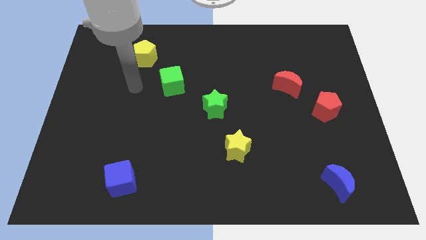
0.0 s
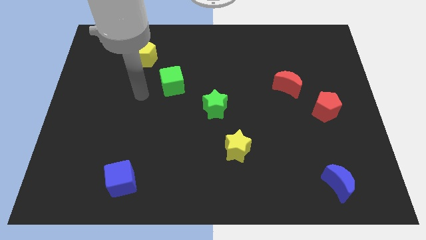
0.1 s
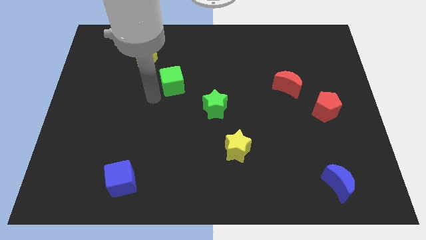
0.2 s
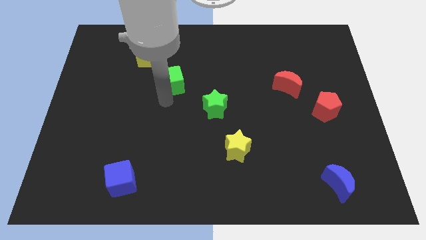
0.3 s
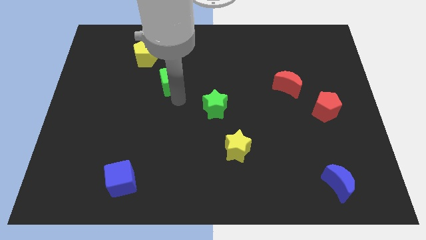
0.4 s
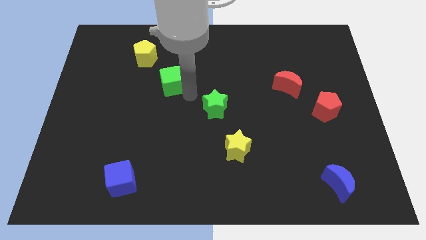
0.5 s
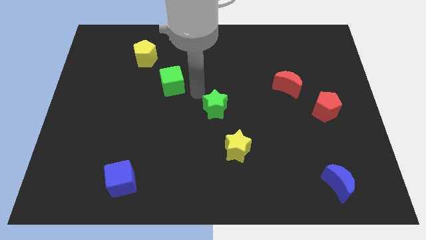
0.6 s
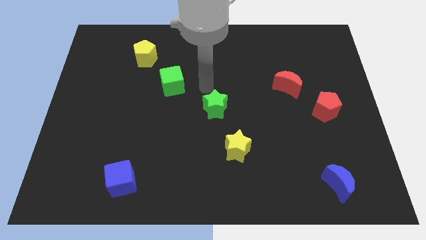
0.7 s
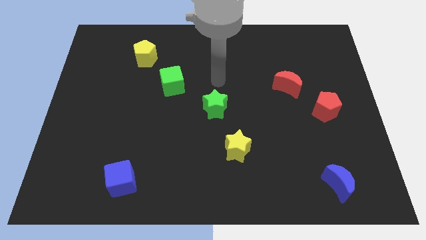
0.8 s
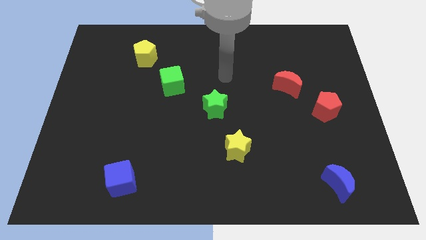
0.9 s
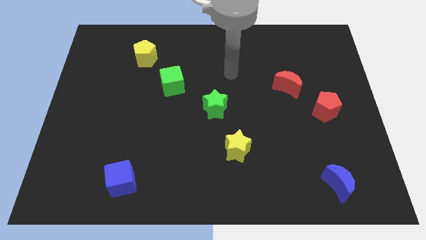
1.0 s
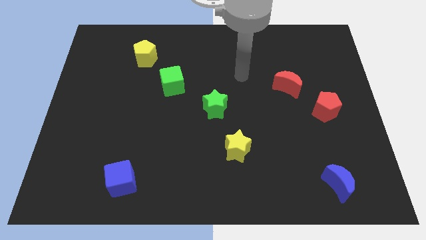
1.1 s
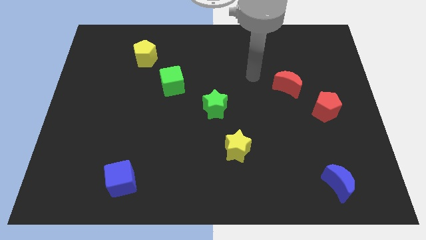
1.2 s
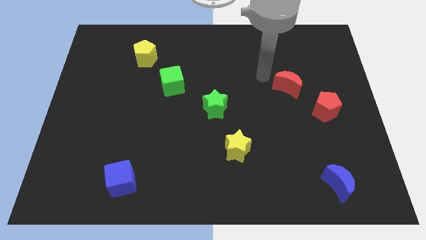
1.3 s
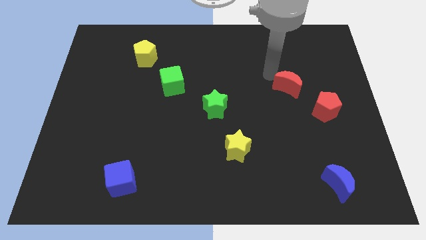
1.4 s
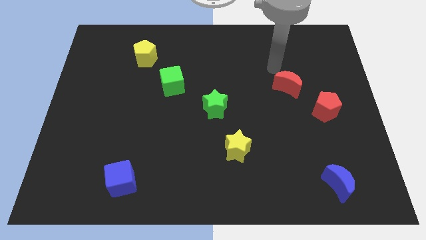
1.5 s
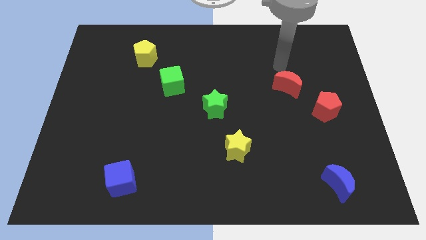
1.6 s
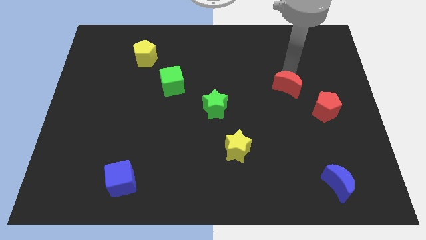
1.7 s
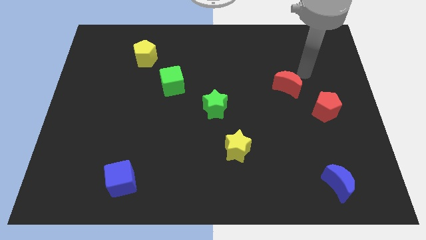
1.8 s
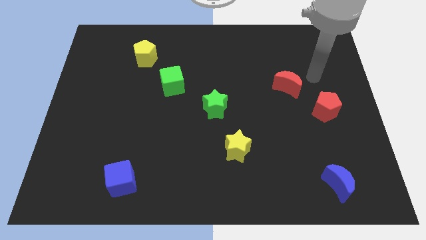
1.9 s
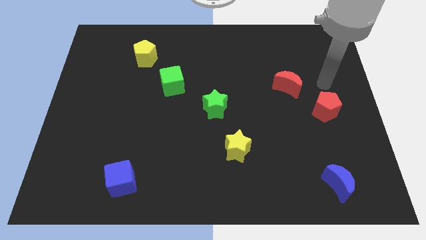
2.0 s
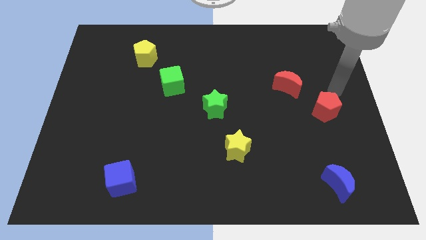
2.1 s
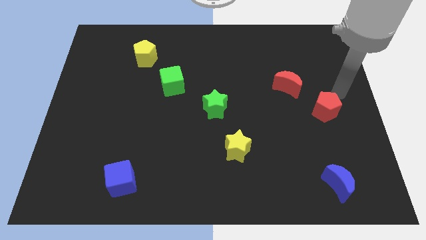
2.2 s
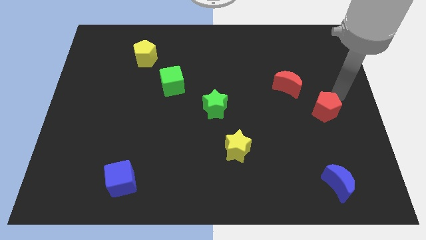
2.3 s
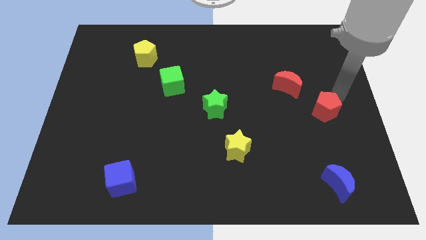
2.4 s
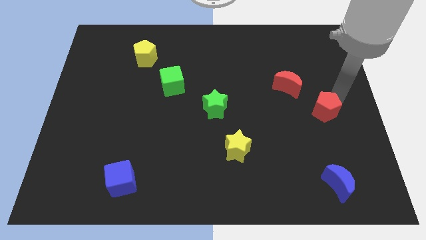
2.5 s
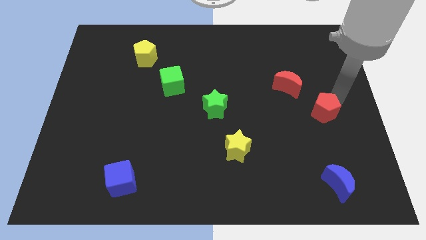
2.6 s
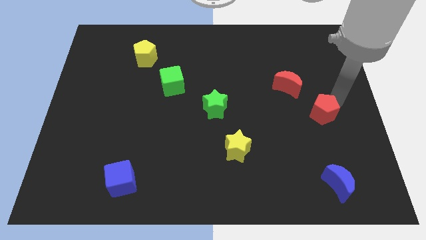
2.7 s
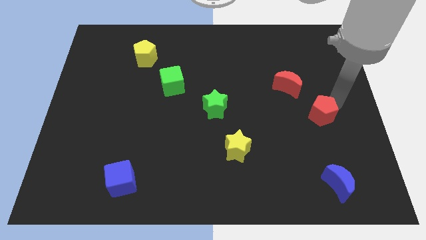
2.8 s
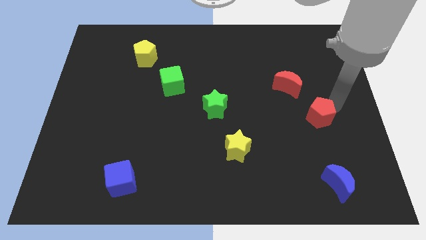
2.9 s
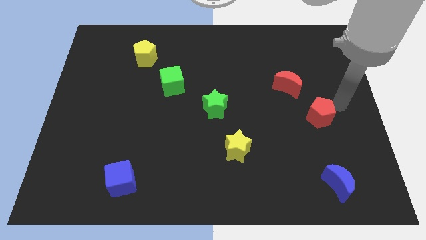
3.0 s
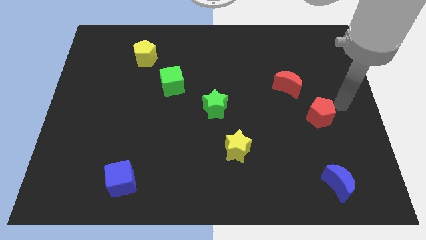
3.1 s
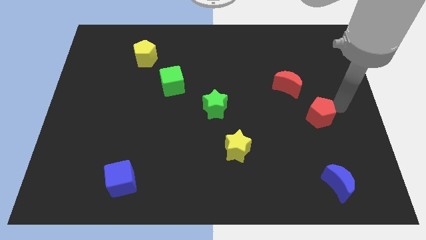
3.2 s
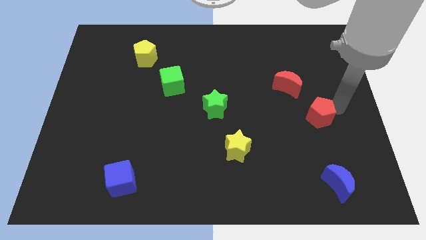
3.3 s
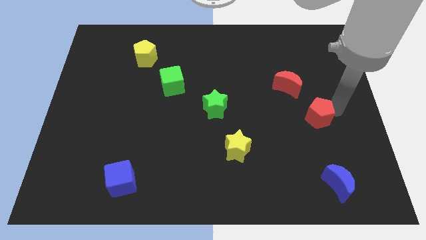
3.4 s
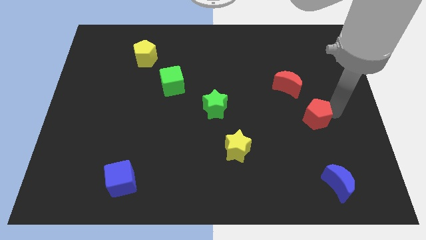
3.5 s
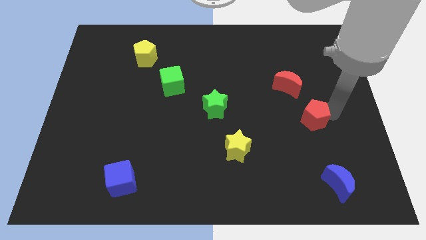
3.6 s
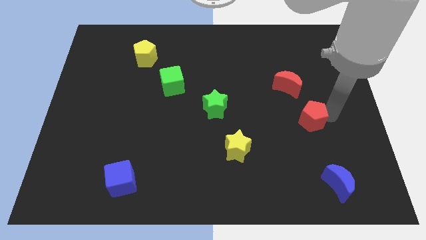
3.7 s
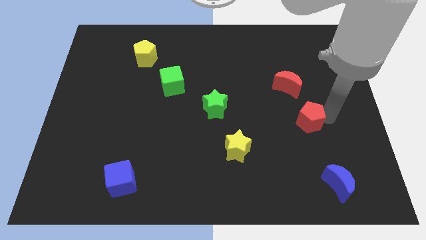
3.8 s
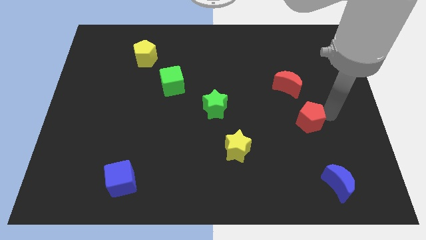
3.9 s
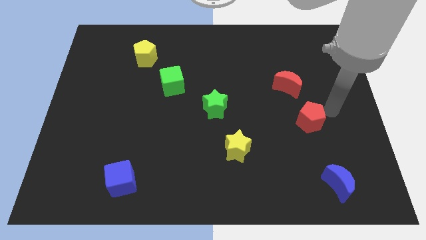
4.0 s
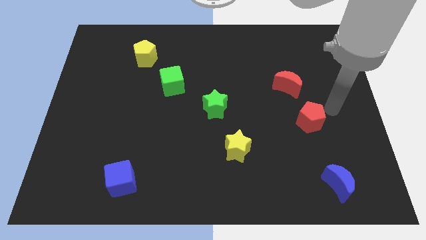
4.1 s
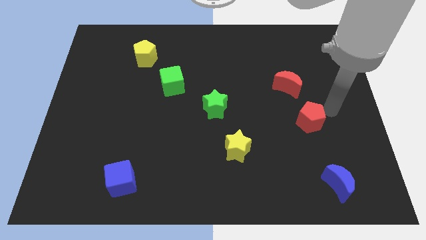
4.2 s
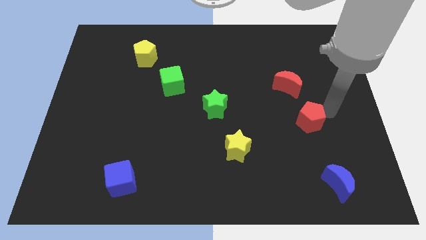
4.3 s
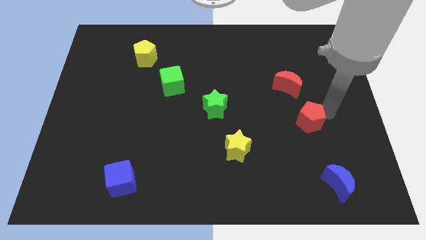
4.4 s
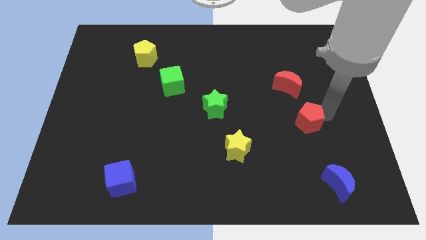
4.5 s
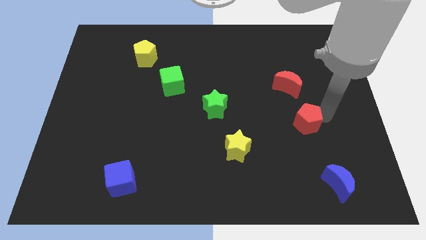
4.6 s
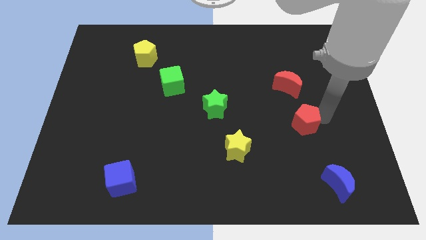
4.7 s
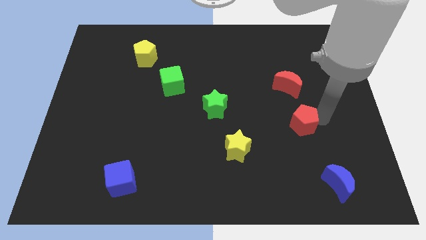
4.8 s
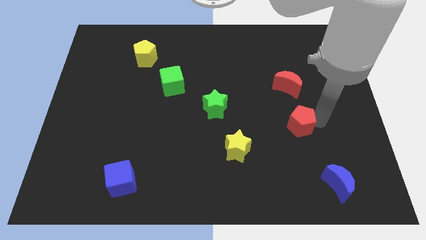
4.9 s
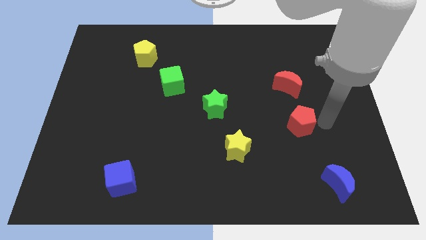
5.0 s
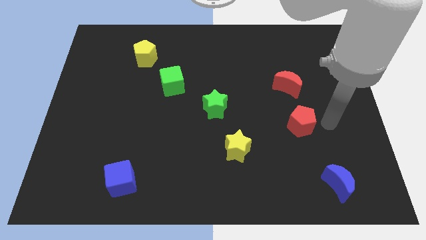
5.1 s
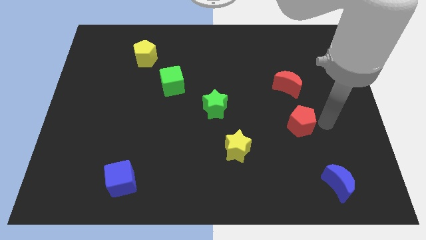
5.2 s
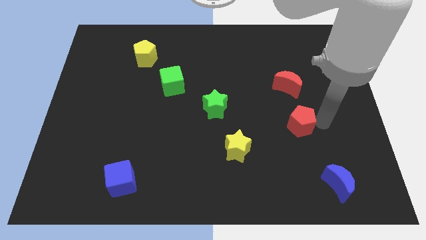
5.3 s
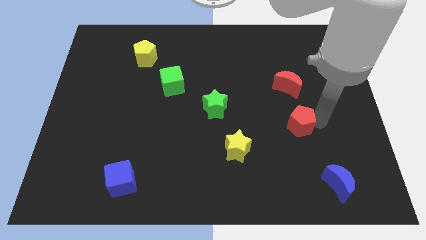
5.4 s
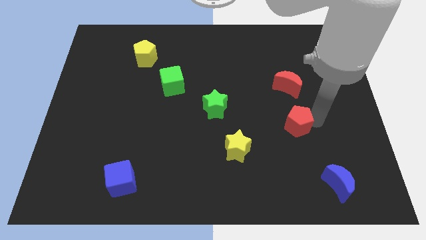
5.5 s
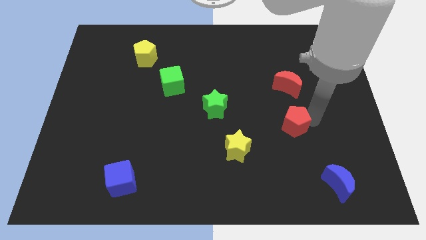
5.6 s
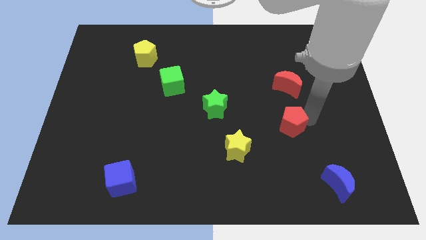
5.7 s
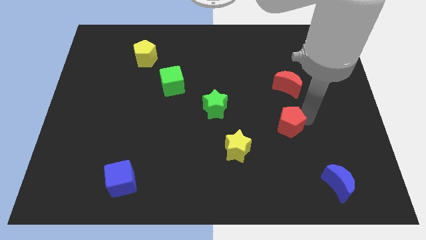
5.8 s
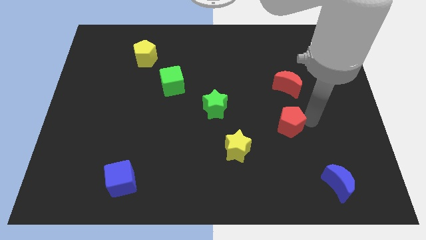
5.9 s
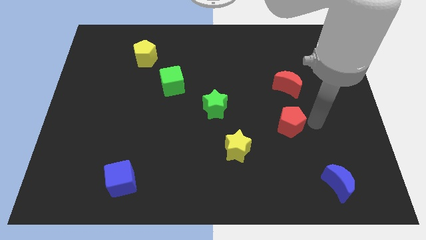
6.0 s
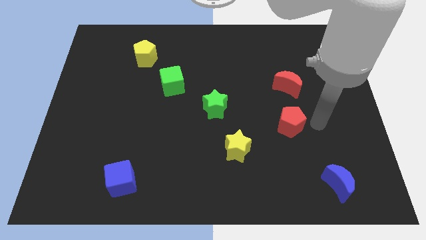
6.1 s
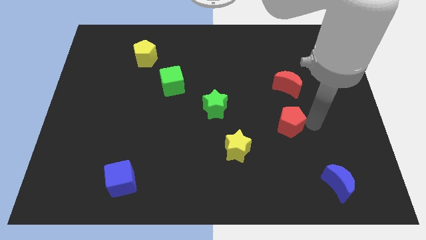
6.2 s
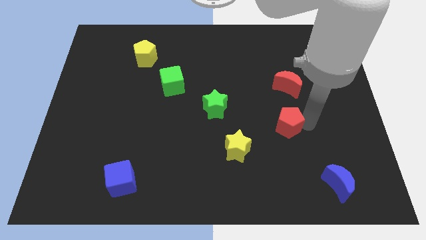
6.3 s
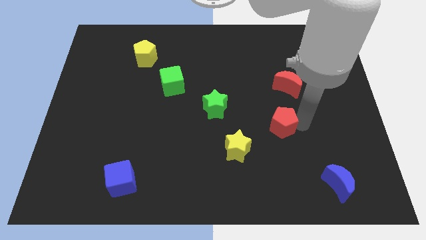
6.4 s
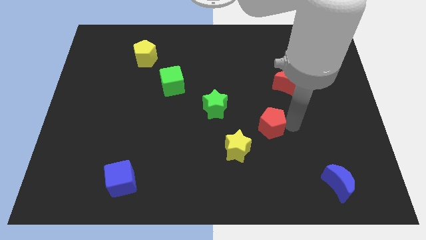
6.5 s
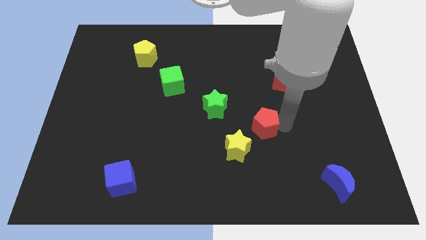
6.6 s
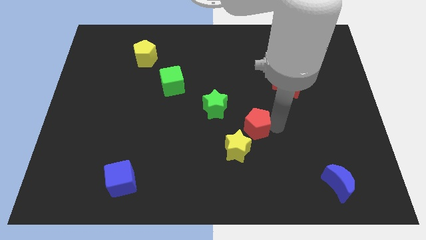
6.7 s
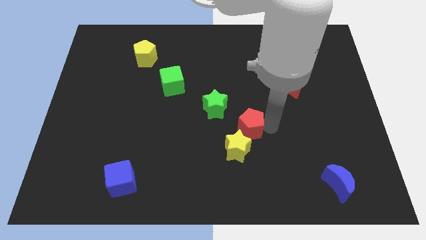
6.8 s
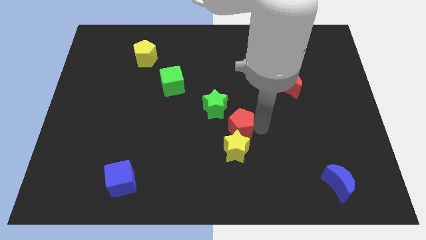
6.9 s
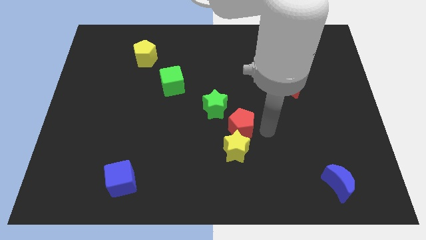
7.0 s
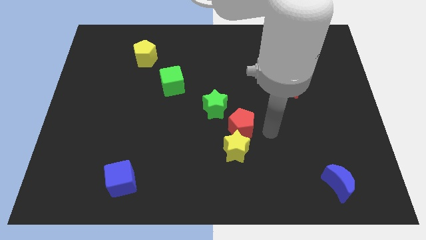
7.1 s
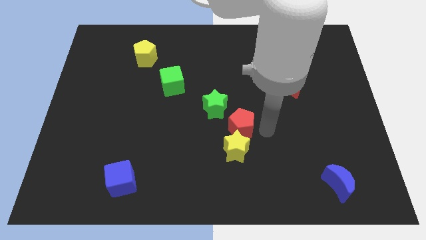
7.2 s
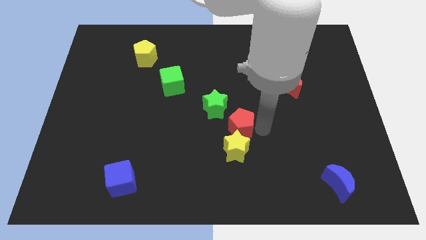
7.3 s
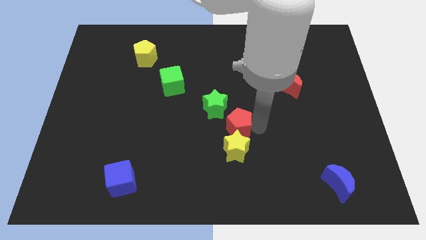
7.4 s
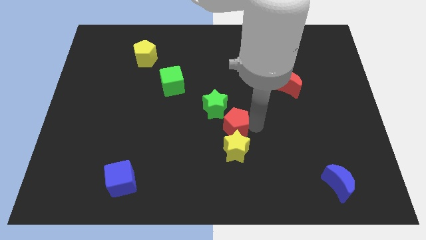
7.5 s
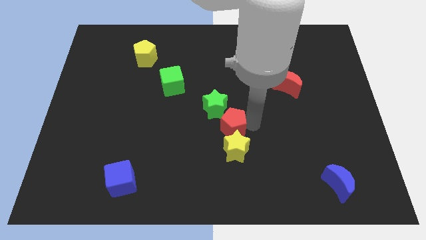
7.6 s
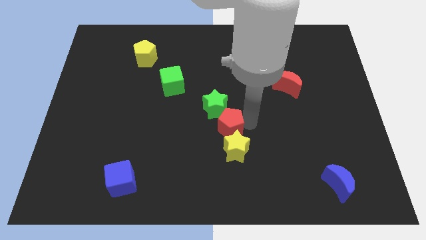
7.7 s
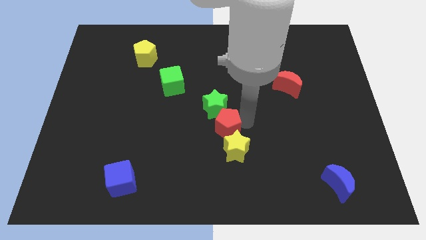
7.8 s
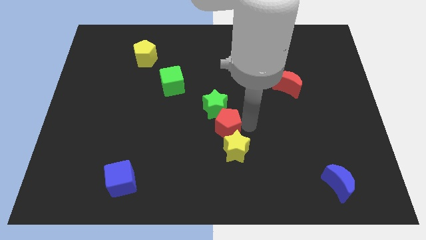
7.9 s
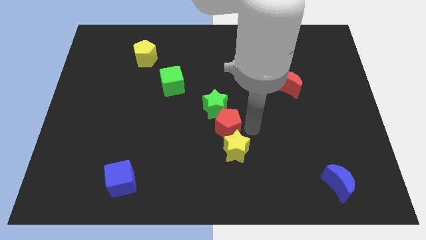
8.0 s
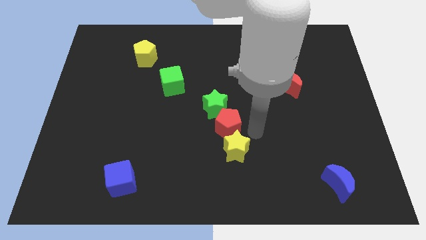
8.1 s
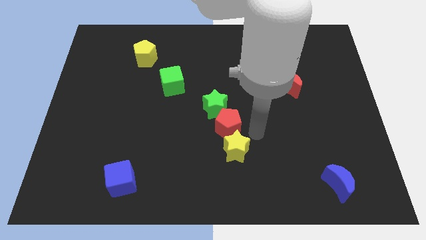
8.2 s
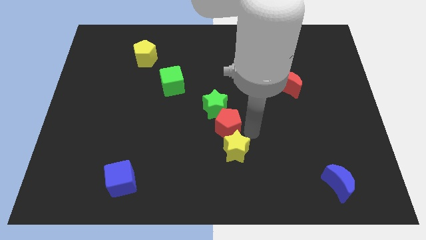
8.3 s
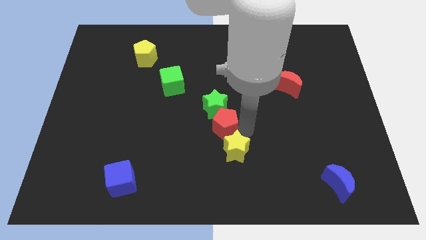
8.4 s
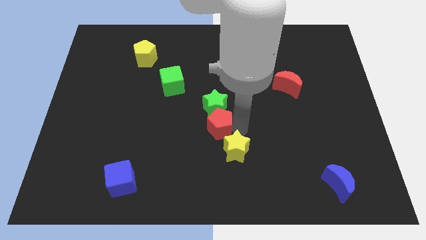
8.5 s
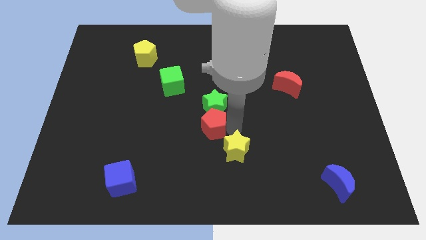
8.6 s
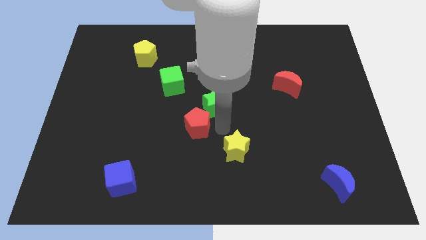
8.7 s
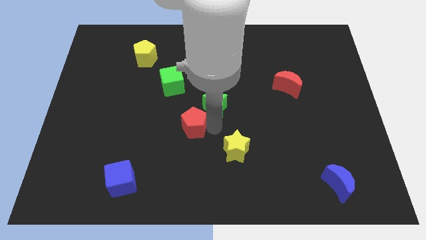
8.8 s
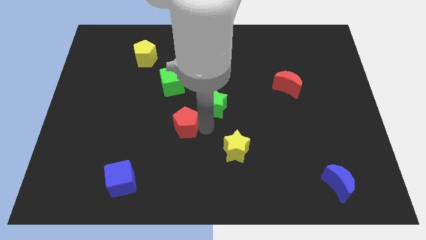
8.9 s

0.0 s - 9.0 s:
put the red pentagon to the bottom side of the green cube
